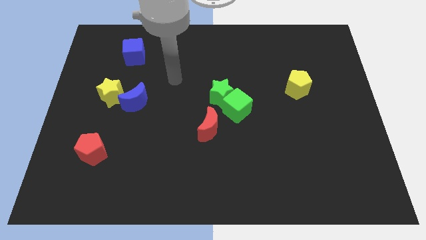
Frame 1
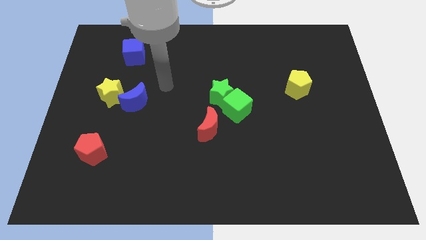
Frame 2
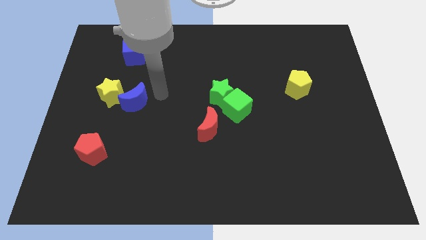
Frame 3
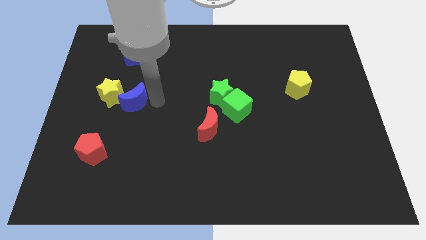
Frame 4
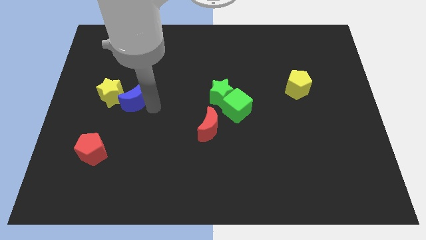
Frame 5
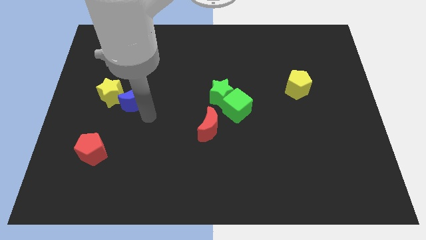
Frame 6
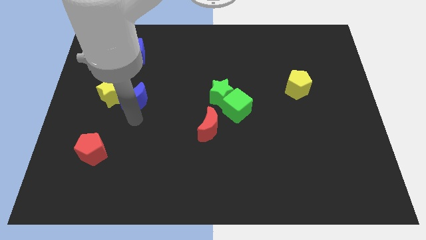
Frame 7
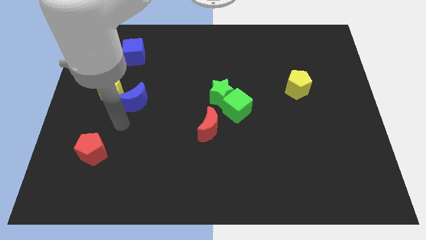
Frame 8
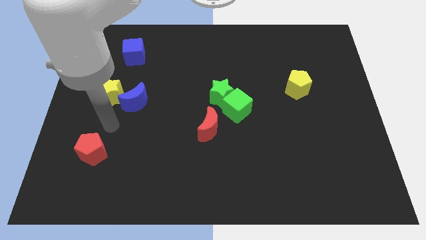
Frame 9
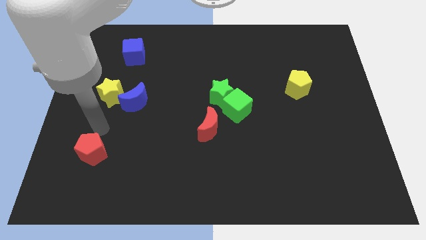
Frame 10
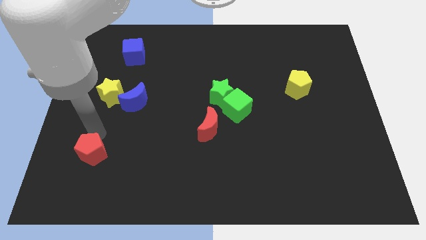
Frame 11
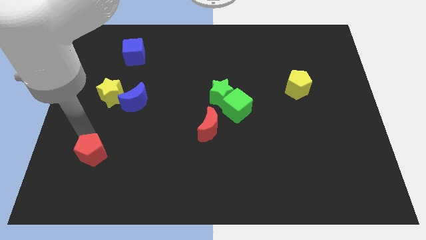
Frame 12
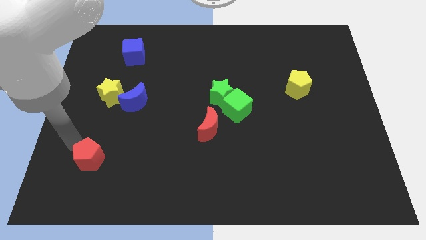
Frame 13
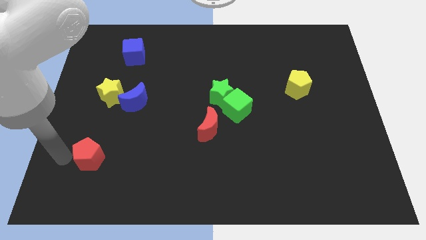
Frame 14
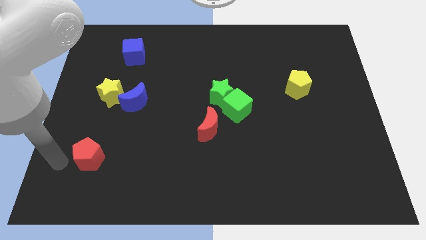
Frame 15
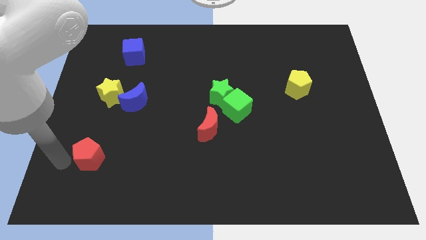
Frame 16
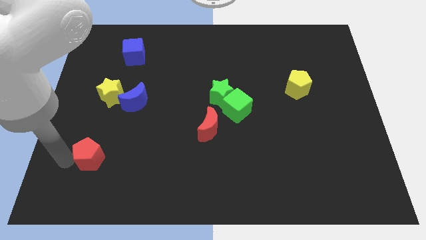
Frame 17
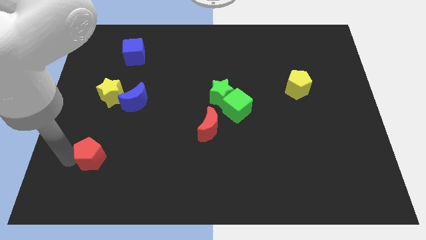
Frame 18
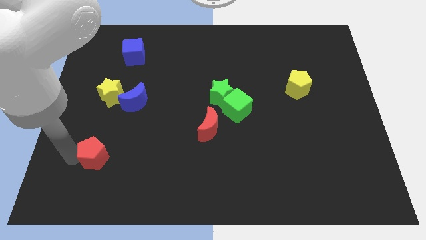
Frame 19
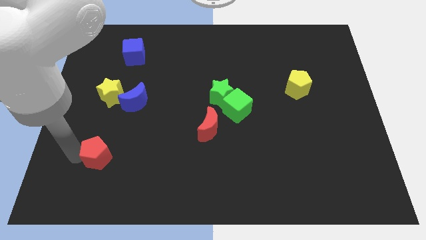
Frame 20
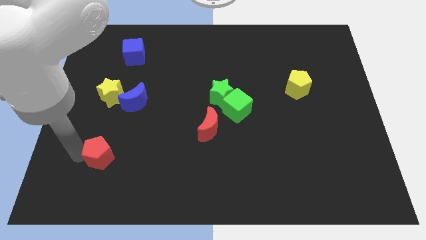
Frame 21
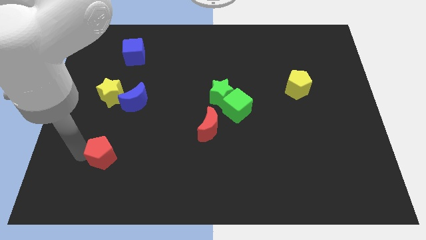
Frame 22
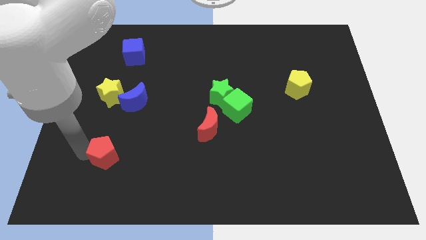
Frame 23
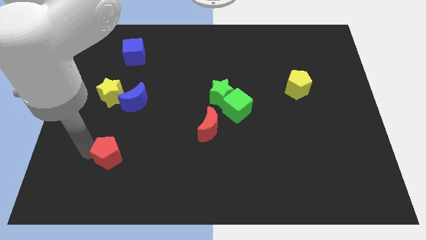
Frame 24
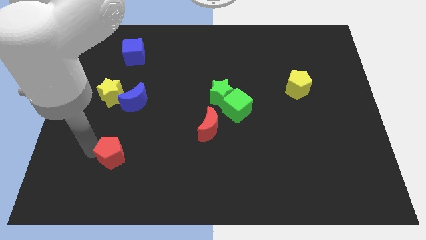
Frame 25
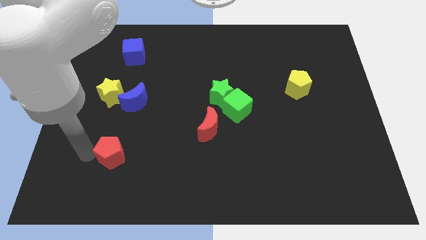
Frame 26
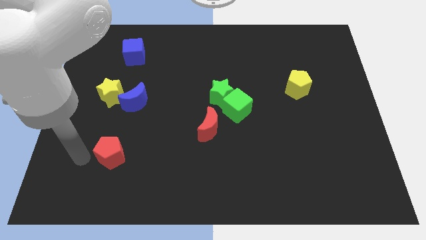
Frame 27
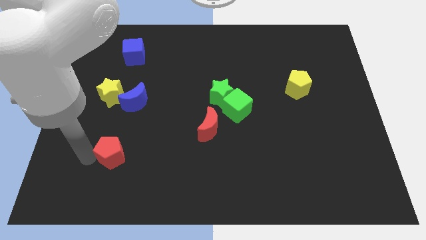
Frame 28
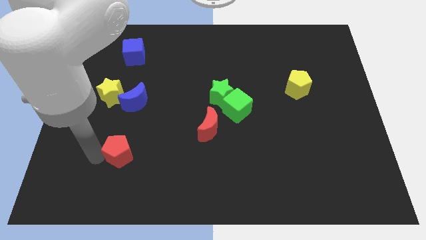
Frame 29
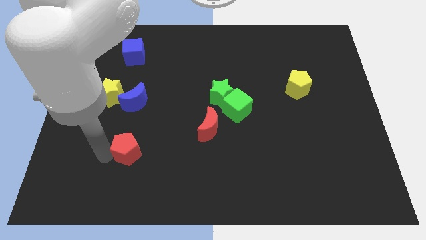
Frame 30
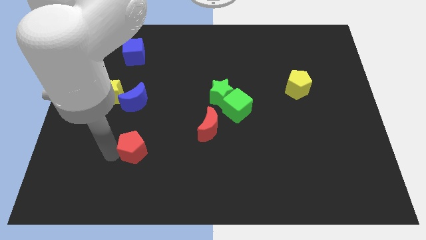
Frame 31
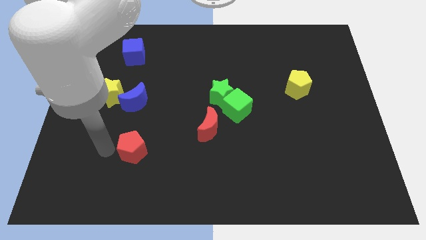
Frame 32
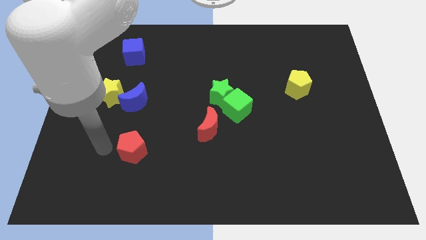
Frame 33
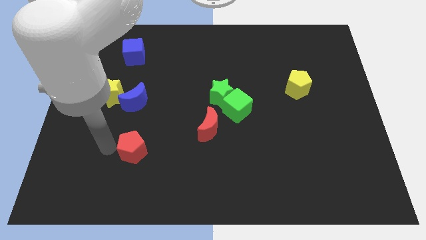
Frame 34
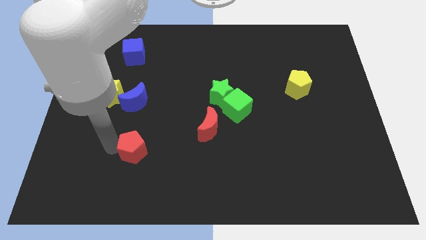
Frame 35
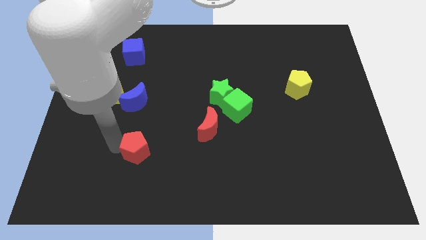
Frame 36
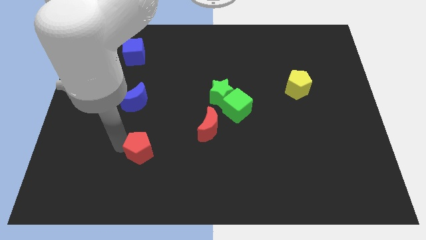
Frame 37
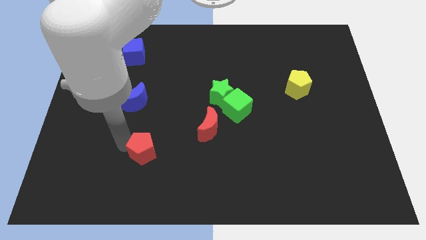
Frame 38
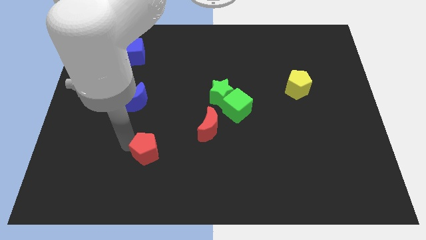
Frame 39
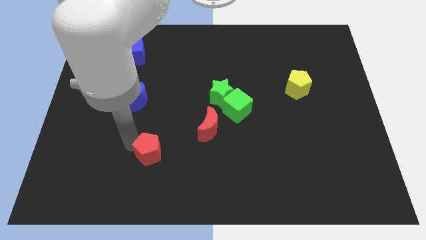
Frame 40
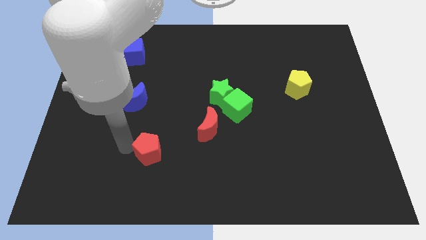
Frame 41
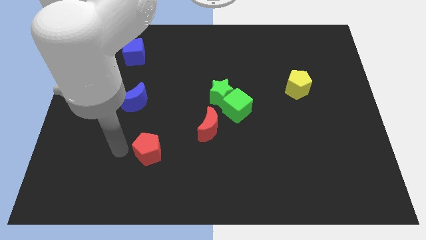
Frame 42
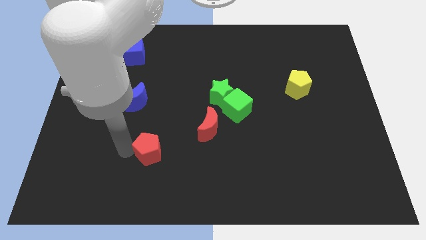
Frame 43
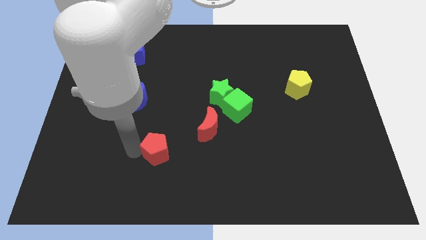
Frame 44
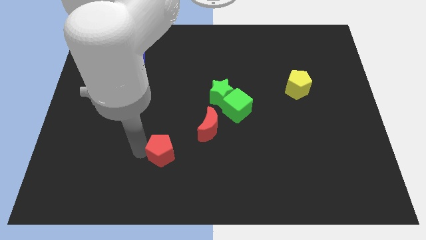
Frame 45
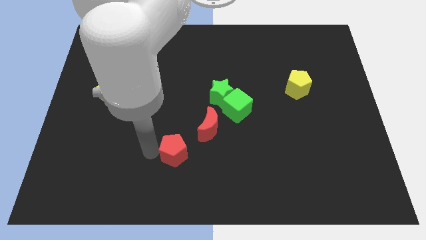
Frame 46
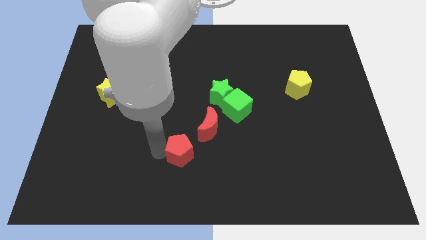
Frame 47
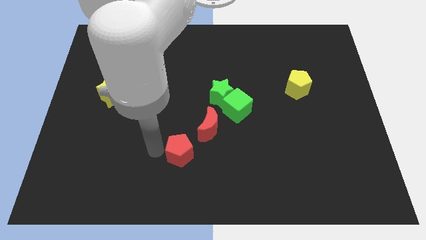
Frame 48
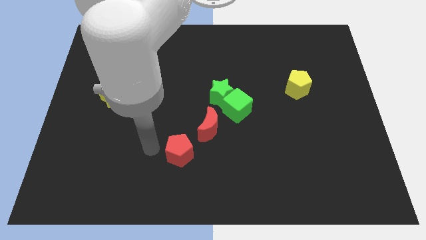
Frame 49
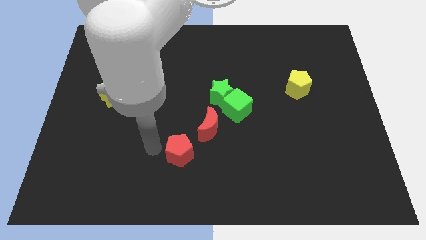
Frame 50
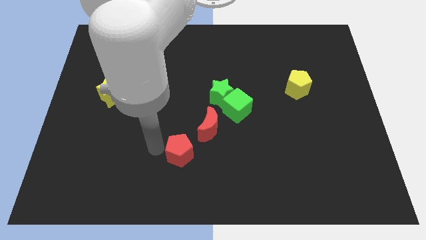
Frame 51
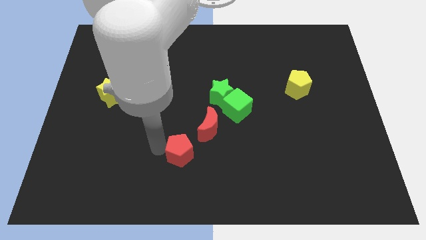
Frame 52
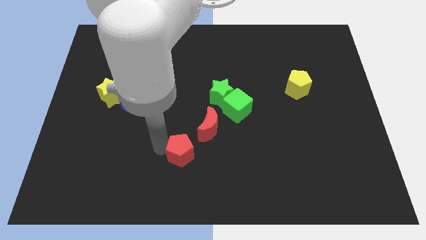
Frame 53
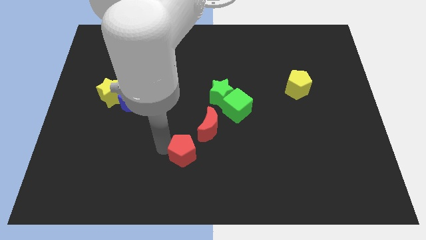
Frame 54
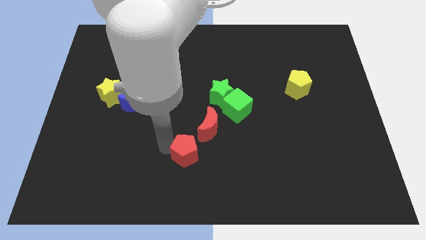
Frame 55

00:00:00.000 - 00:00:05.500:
push the red pentagon right

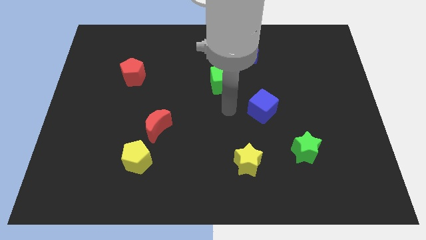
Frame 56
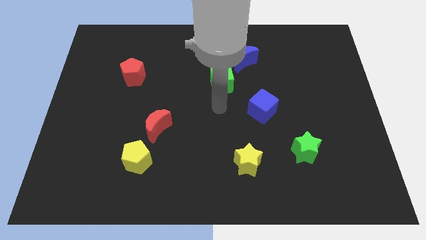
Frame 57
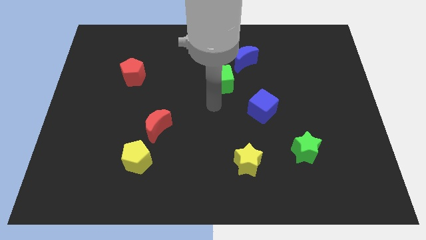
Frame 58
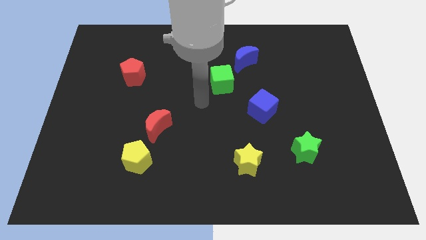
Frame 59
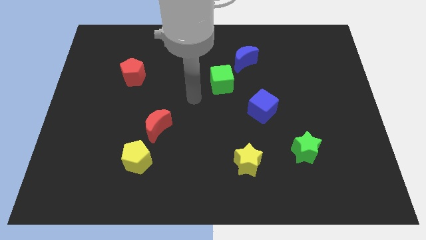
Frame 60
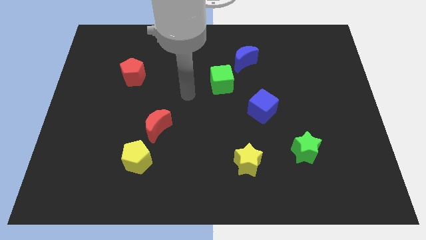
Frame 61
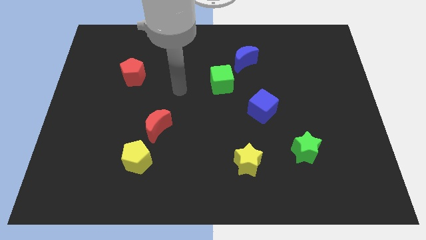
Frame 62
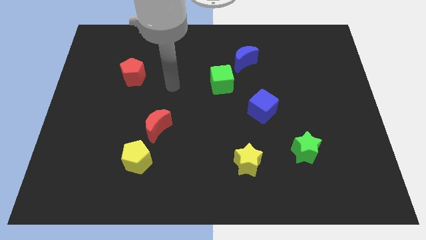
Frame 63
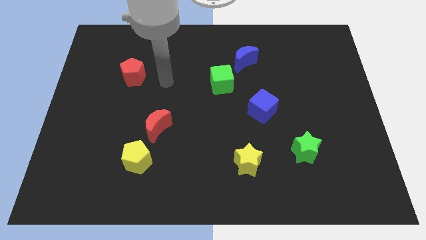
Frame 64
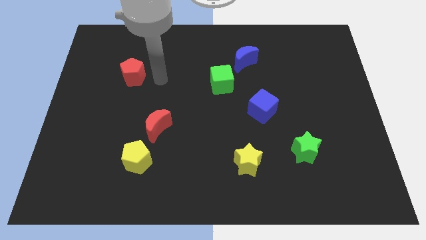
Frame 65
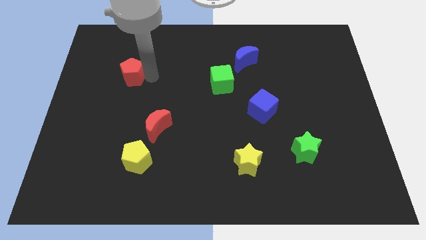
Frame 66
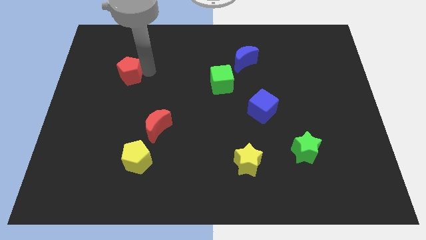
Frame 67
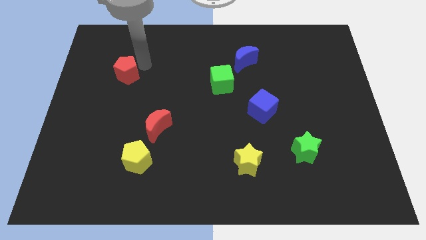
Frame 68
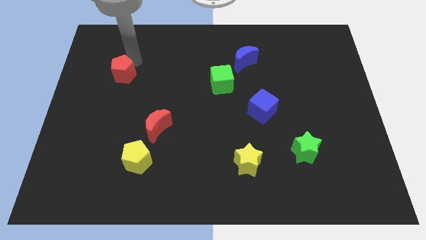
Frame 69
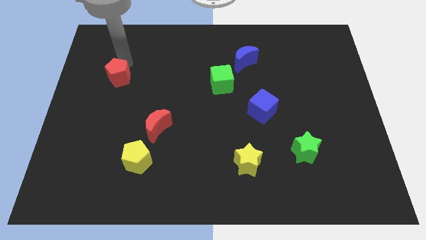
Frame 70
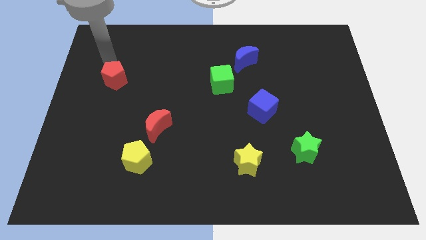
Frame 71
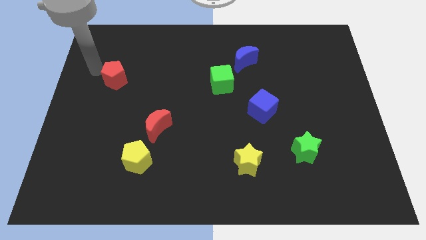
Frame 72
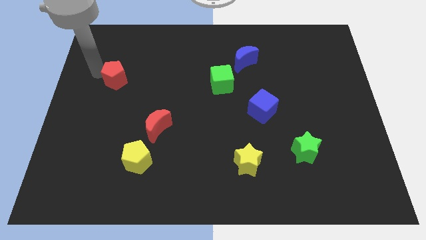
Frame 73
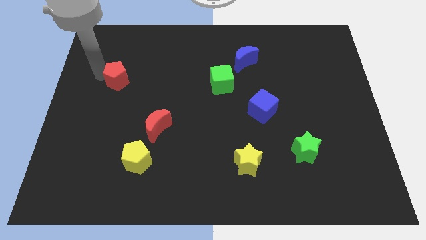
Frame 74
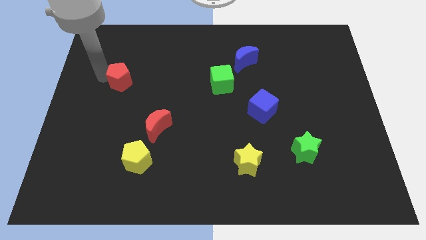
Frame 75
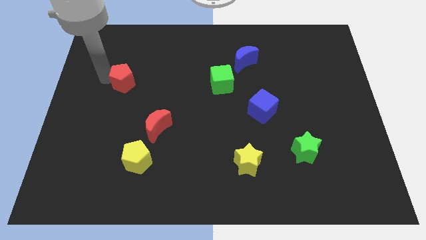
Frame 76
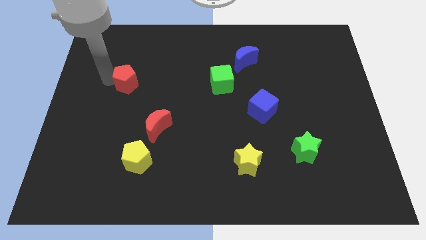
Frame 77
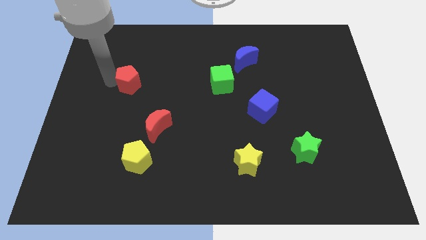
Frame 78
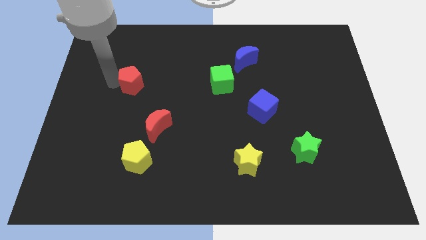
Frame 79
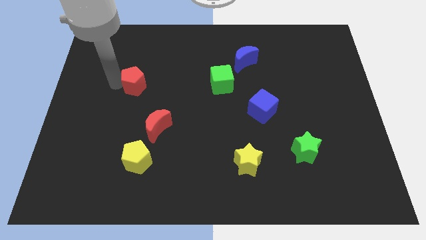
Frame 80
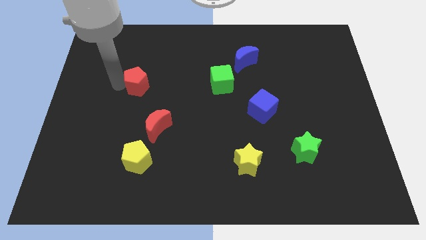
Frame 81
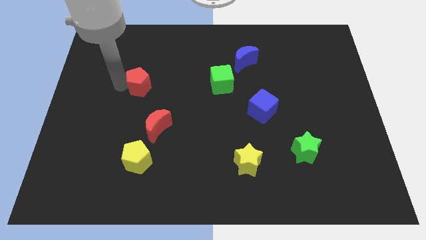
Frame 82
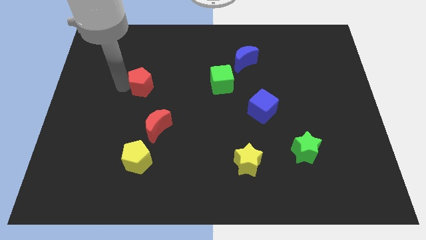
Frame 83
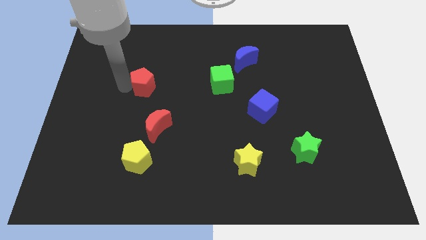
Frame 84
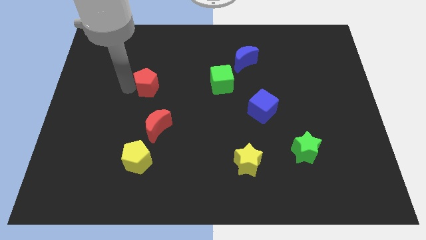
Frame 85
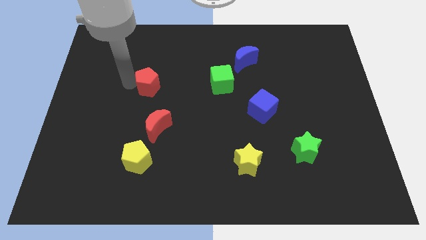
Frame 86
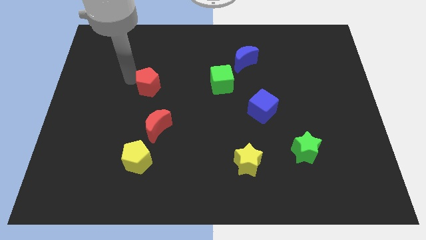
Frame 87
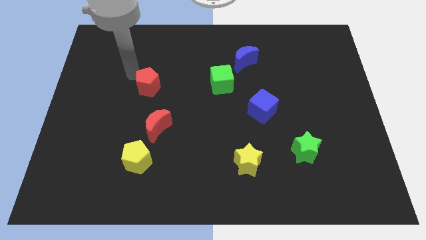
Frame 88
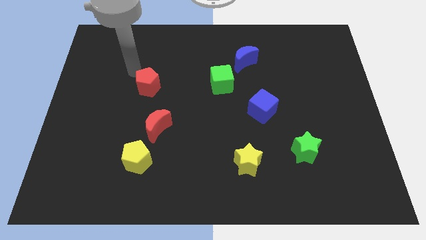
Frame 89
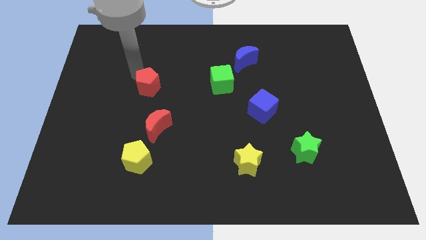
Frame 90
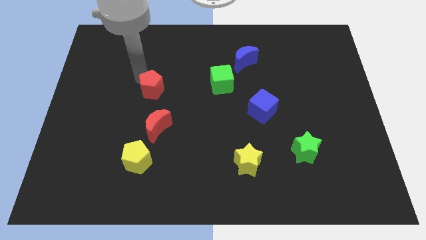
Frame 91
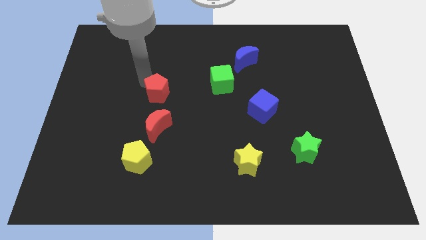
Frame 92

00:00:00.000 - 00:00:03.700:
move the red pentagon downwards and right somewhat
